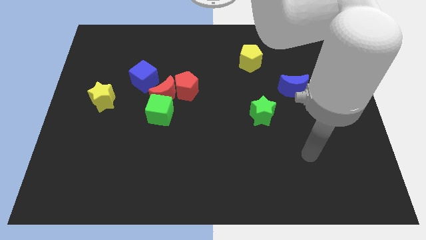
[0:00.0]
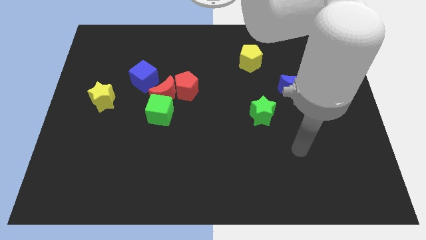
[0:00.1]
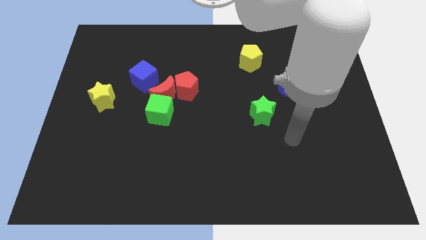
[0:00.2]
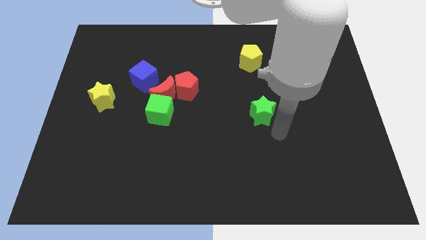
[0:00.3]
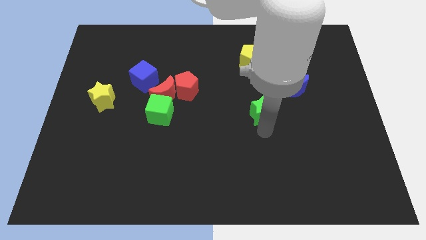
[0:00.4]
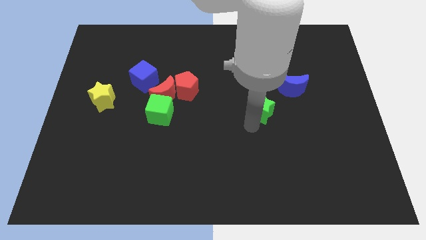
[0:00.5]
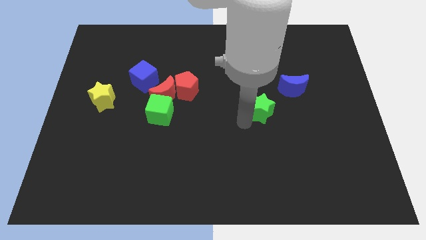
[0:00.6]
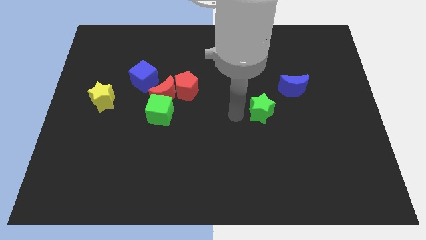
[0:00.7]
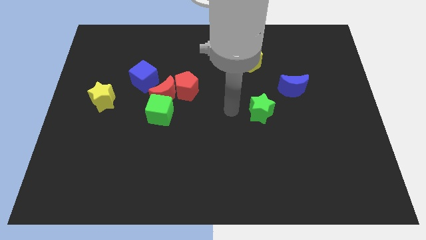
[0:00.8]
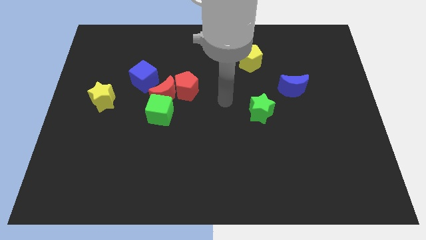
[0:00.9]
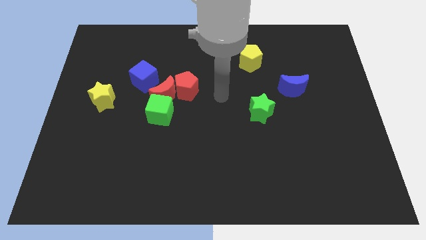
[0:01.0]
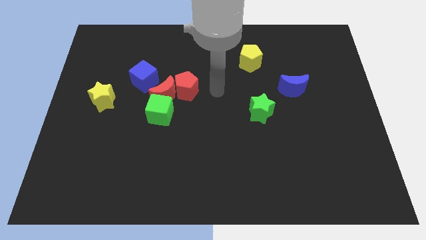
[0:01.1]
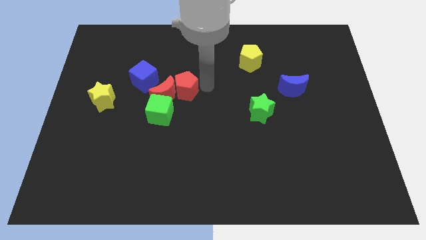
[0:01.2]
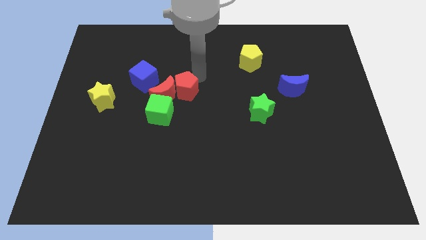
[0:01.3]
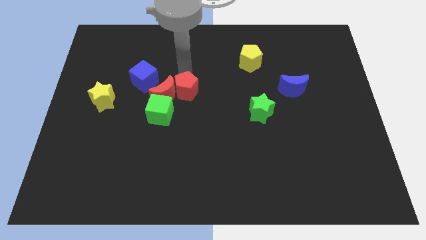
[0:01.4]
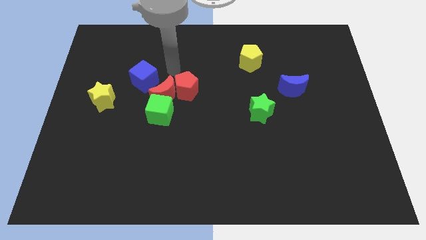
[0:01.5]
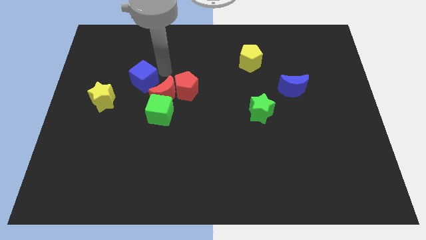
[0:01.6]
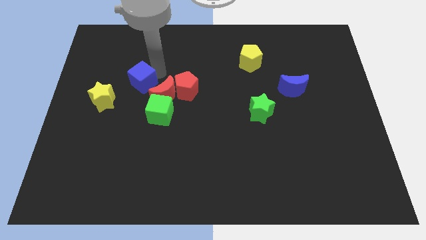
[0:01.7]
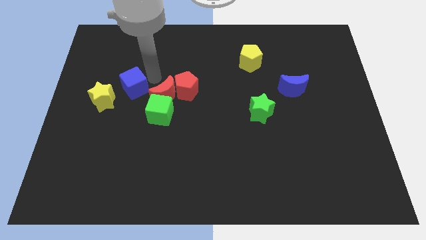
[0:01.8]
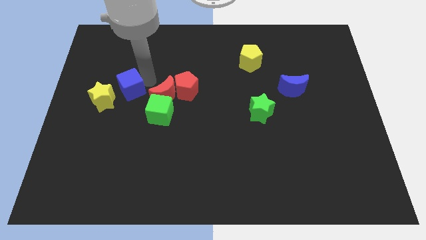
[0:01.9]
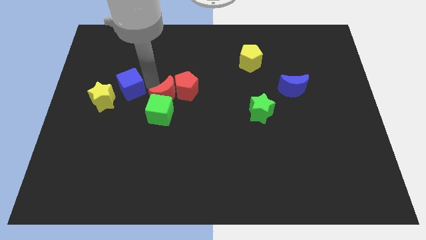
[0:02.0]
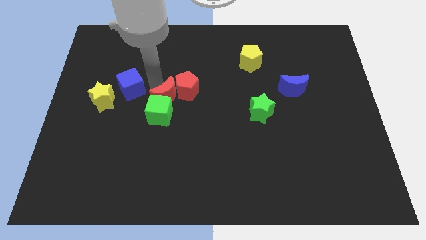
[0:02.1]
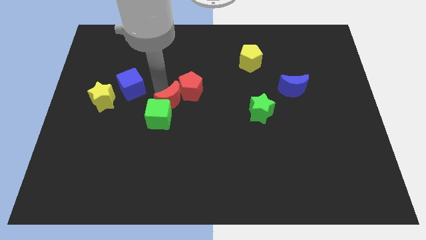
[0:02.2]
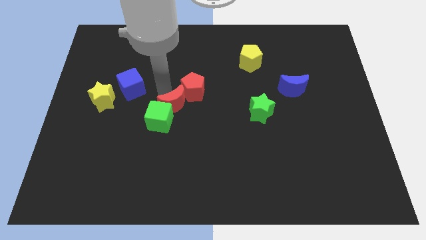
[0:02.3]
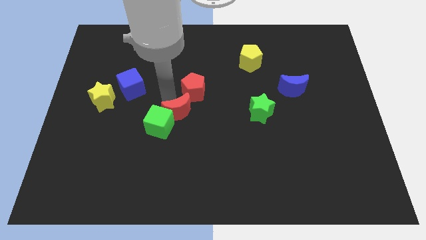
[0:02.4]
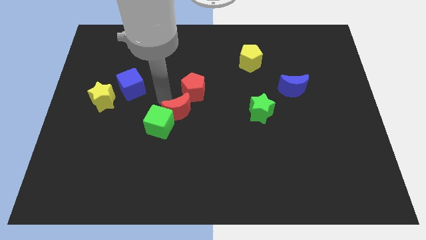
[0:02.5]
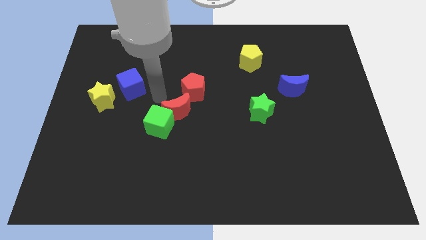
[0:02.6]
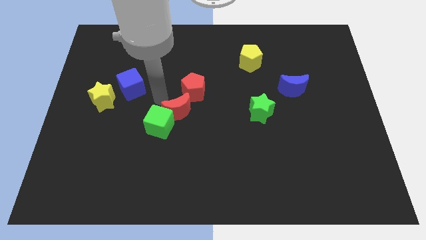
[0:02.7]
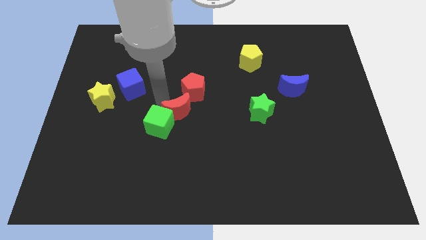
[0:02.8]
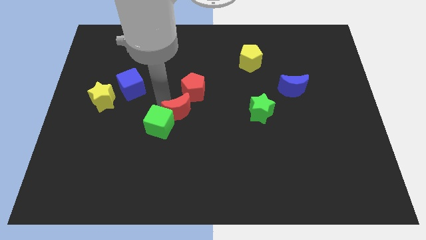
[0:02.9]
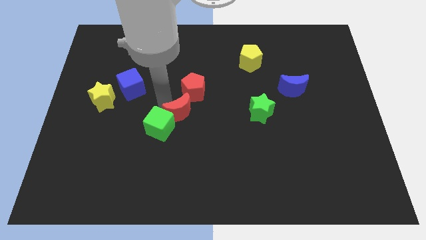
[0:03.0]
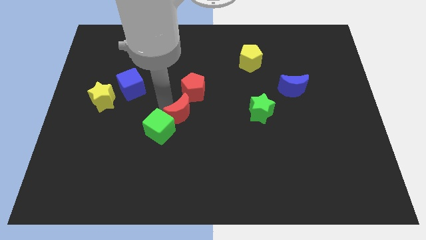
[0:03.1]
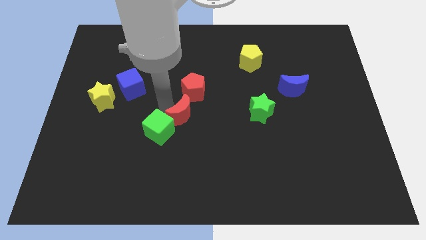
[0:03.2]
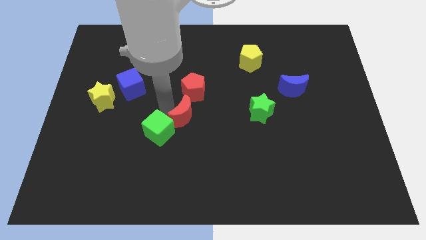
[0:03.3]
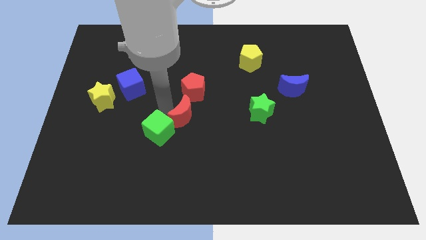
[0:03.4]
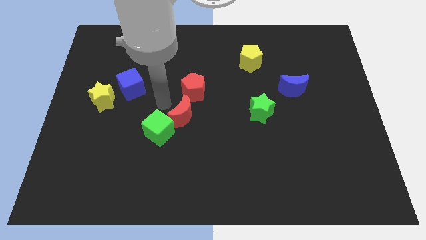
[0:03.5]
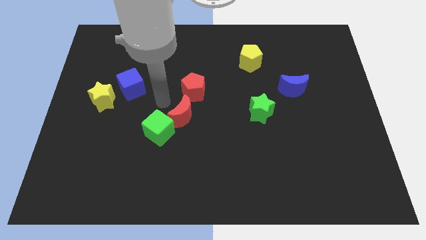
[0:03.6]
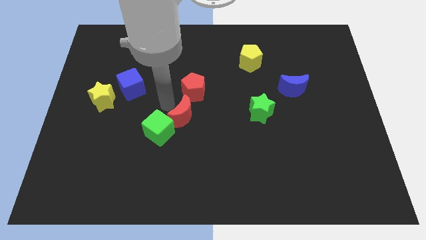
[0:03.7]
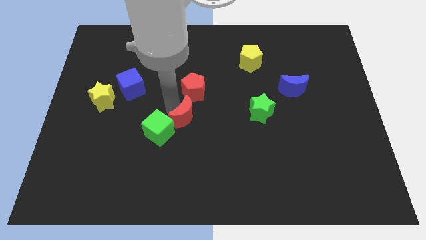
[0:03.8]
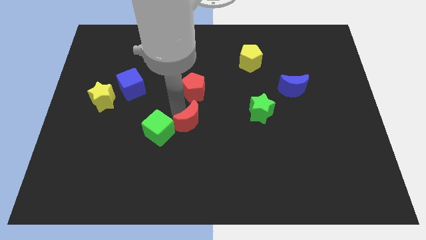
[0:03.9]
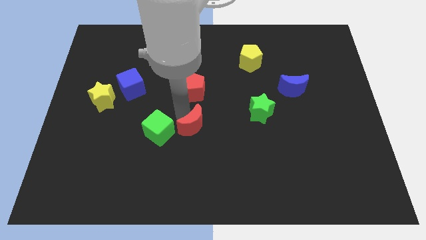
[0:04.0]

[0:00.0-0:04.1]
separate the red moon from the group of blocks

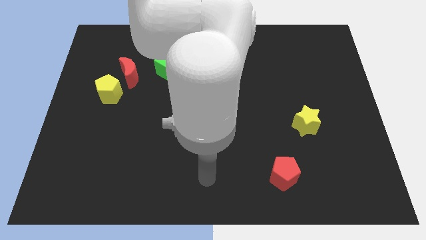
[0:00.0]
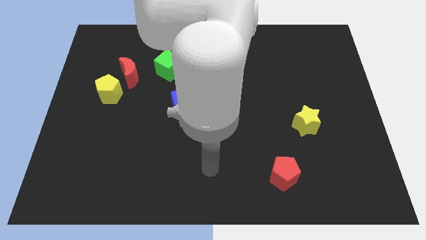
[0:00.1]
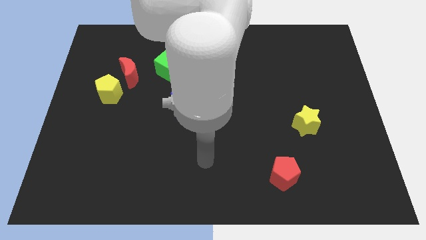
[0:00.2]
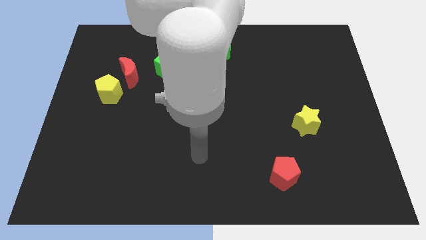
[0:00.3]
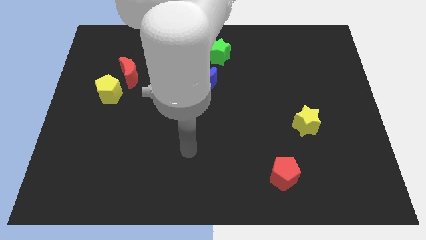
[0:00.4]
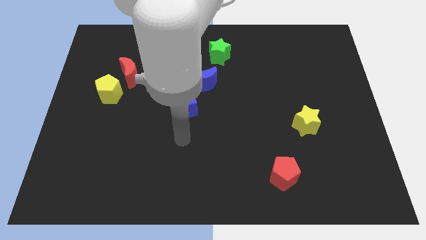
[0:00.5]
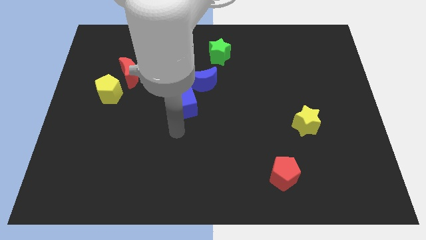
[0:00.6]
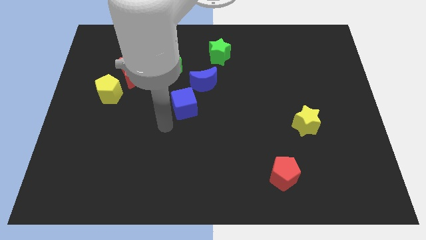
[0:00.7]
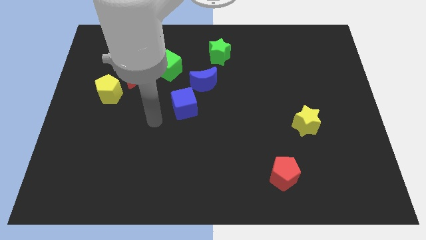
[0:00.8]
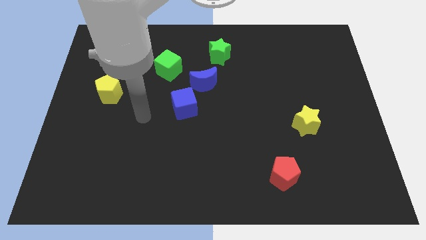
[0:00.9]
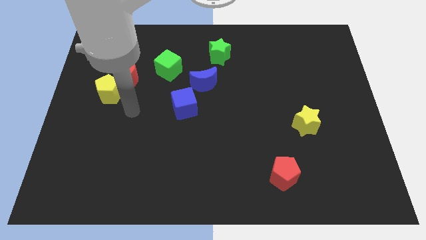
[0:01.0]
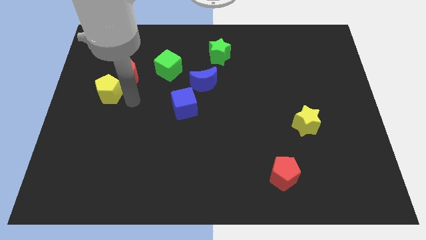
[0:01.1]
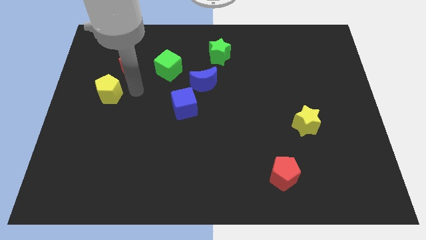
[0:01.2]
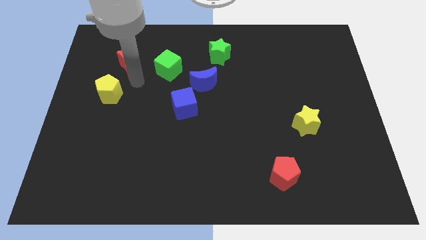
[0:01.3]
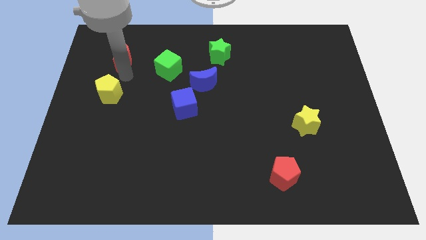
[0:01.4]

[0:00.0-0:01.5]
pull the yellow pentagon apart from the red moon

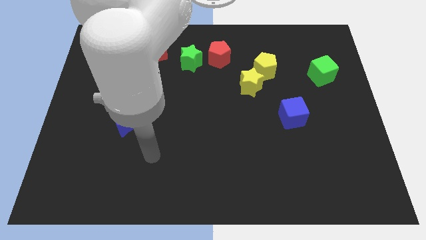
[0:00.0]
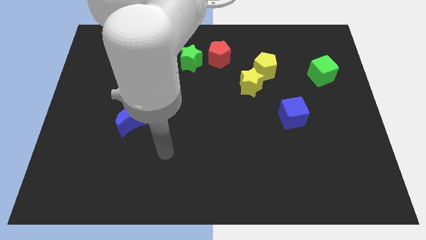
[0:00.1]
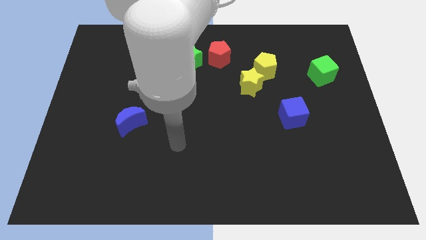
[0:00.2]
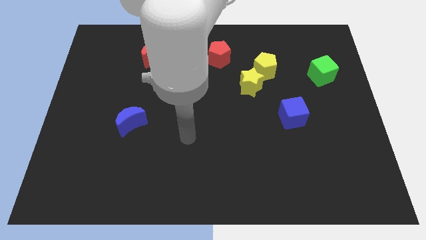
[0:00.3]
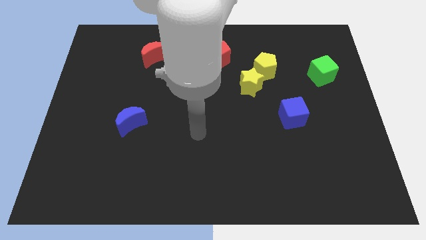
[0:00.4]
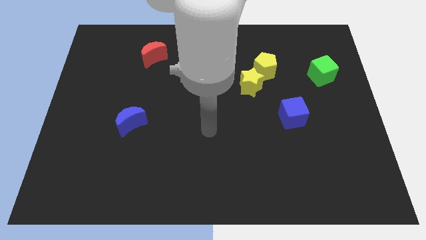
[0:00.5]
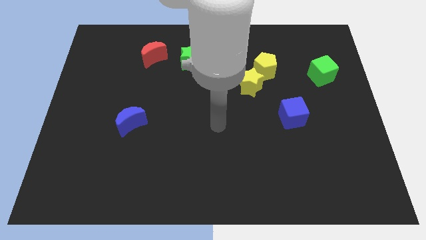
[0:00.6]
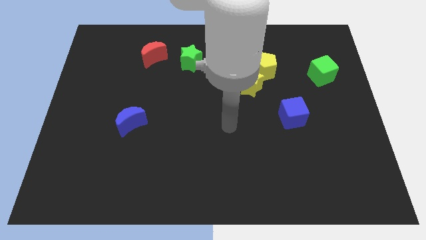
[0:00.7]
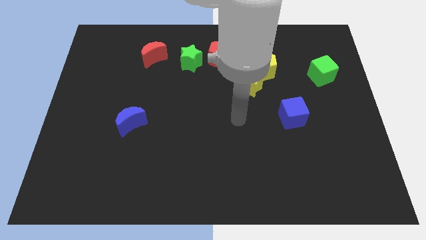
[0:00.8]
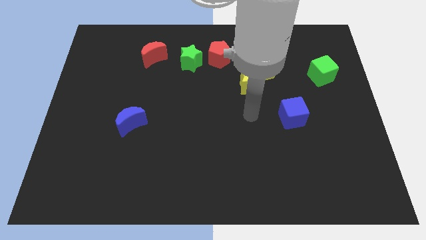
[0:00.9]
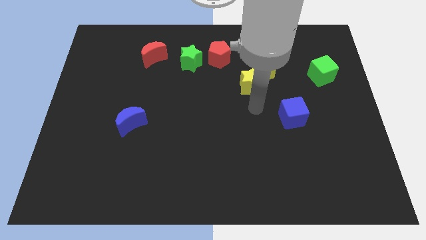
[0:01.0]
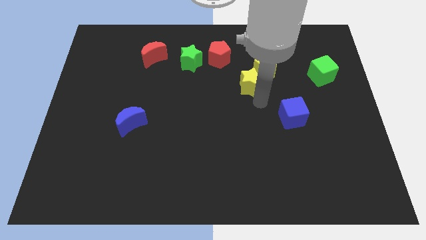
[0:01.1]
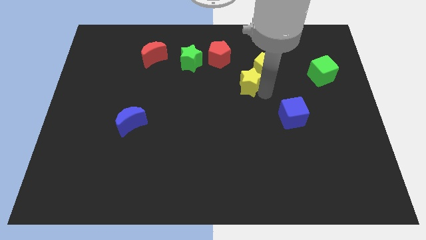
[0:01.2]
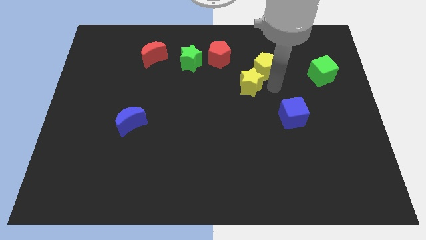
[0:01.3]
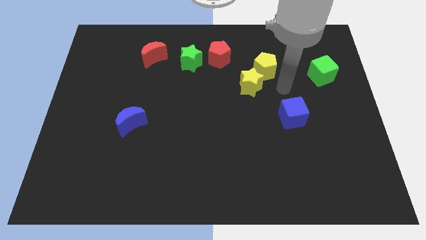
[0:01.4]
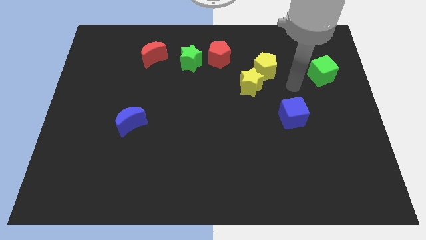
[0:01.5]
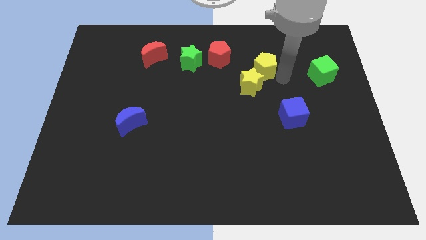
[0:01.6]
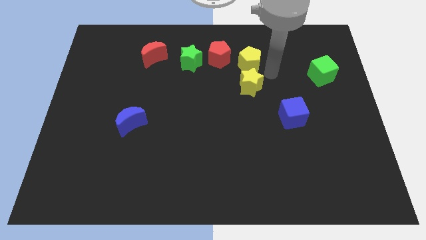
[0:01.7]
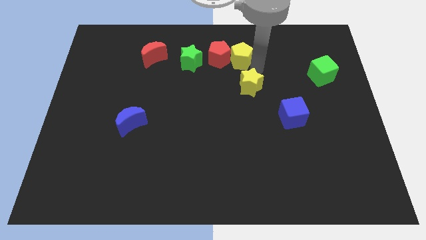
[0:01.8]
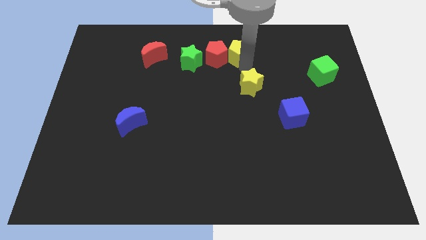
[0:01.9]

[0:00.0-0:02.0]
pull the yellow star apart from the yellow pentagon

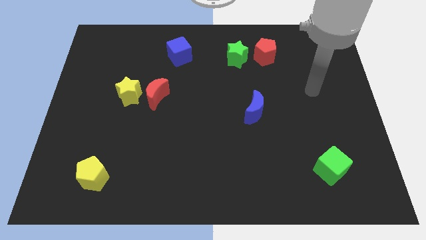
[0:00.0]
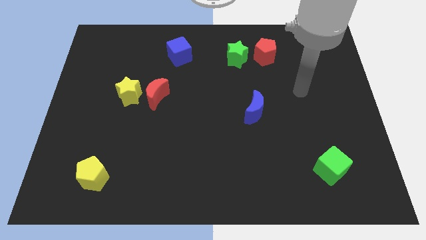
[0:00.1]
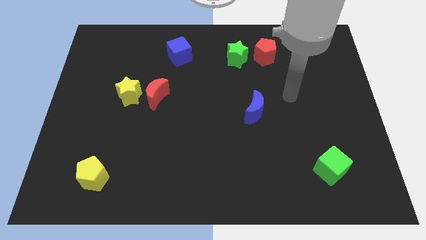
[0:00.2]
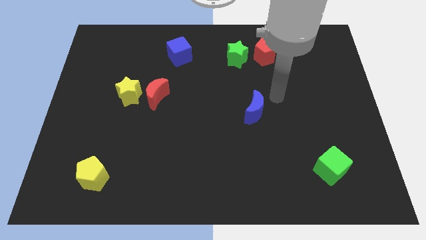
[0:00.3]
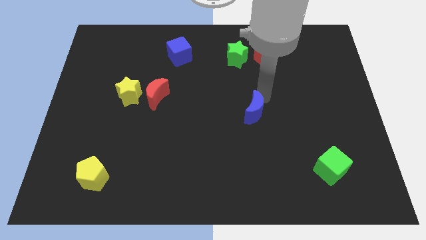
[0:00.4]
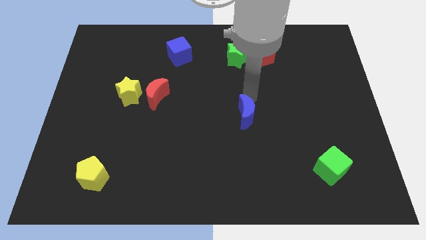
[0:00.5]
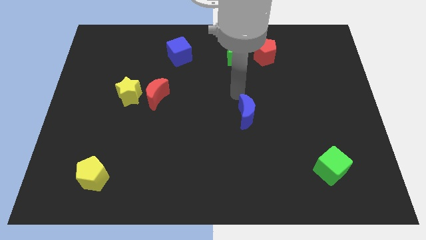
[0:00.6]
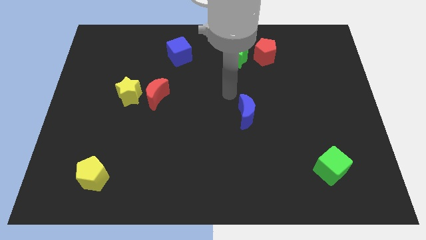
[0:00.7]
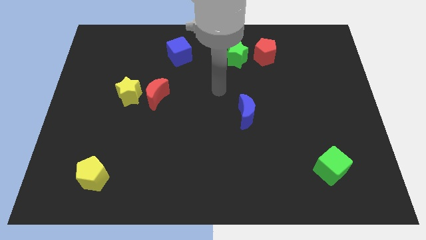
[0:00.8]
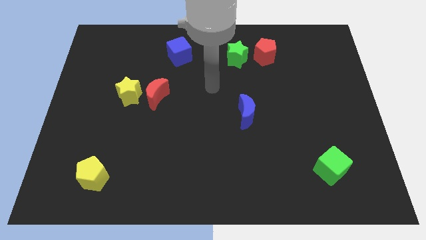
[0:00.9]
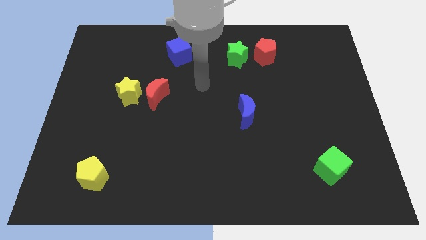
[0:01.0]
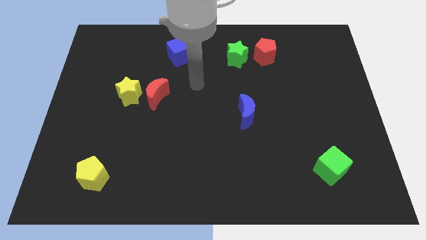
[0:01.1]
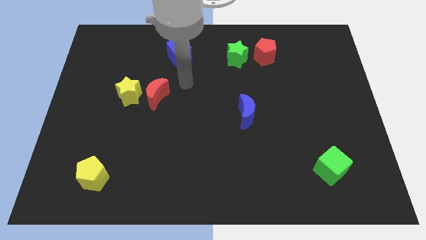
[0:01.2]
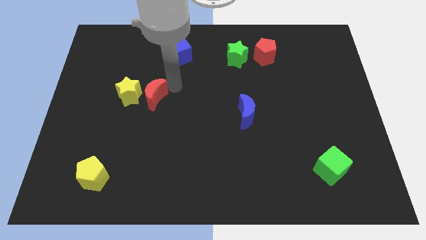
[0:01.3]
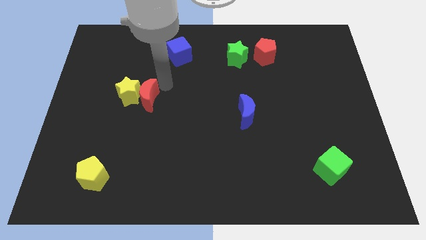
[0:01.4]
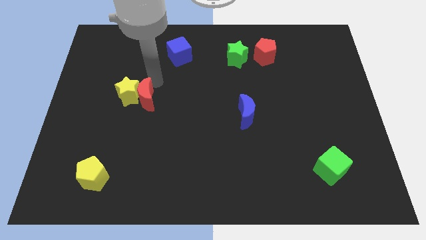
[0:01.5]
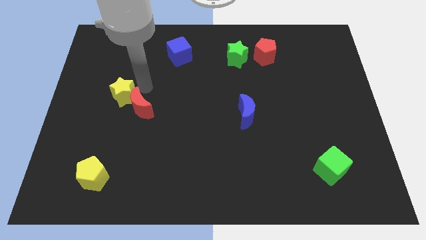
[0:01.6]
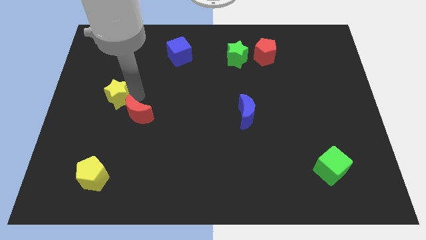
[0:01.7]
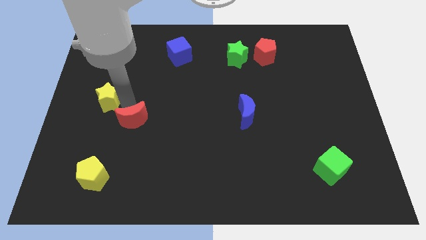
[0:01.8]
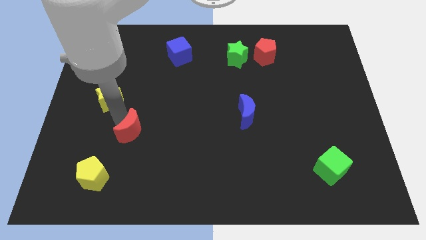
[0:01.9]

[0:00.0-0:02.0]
pull the red moon apart from the yellow star

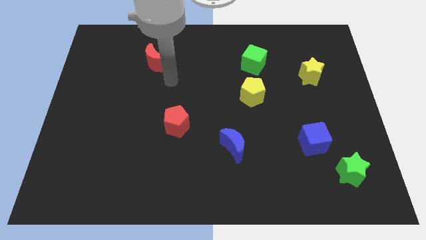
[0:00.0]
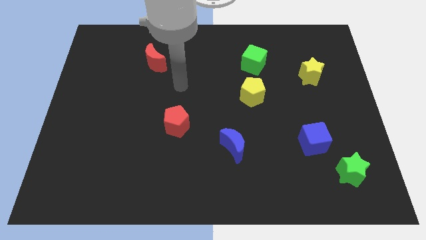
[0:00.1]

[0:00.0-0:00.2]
pull the blue cube apart from the green star
